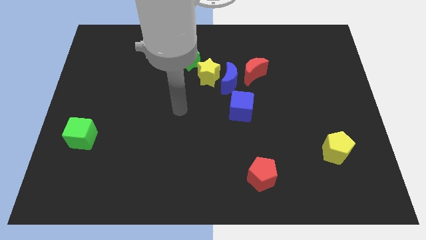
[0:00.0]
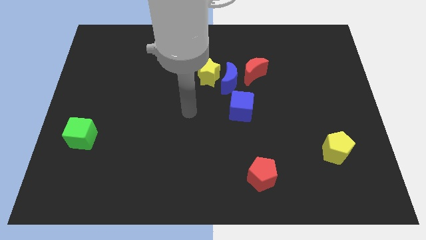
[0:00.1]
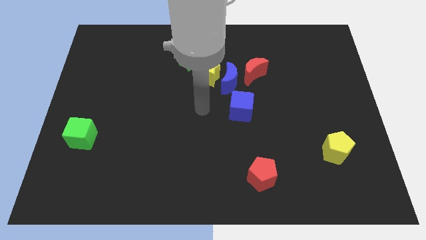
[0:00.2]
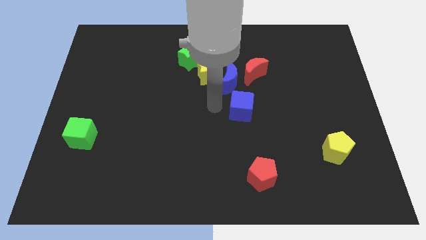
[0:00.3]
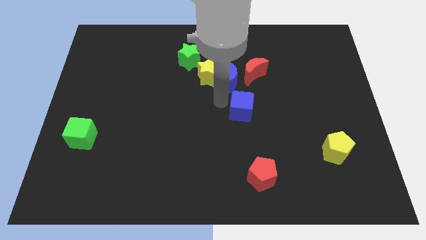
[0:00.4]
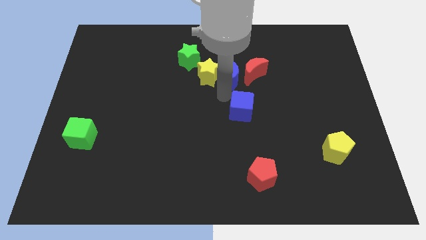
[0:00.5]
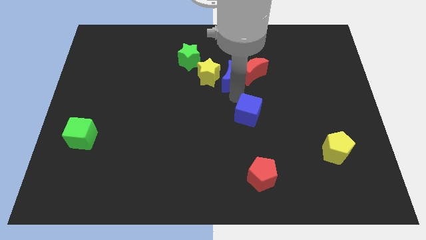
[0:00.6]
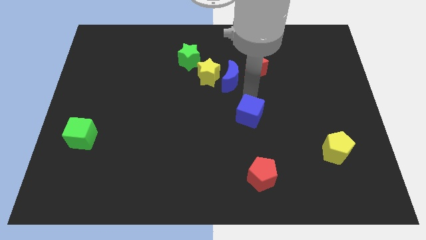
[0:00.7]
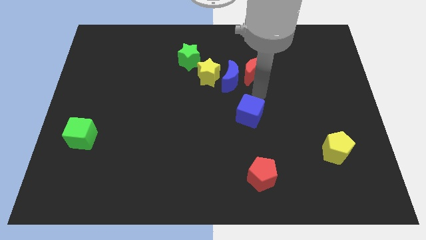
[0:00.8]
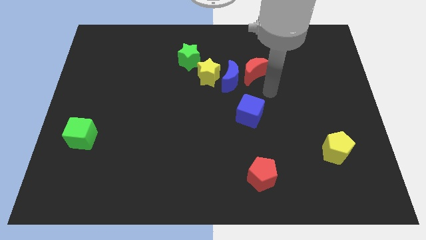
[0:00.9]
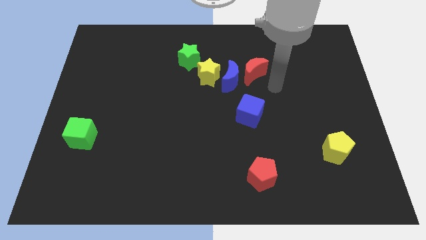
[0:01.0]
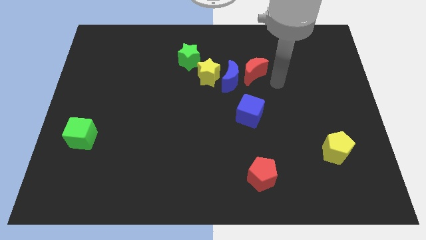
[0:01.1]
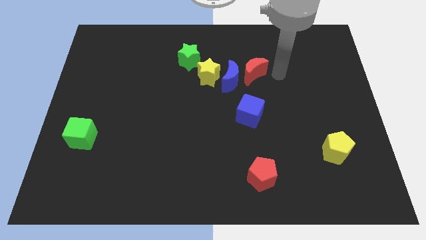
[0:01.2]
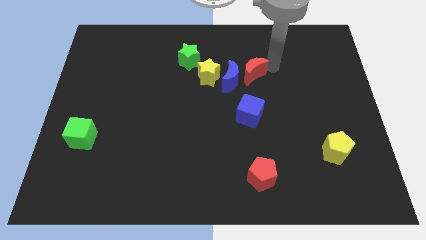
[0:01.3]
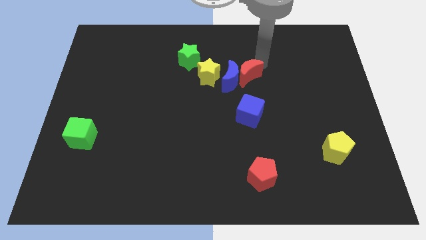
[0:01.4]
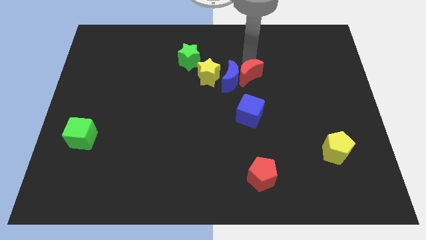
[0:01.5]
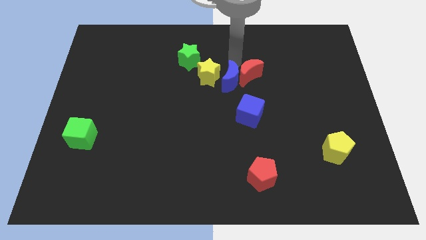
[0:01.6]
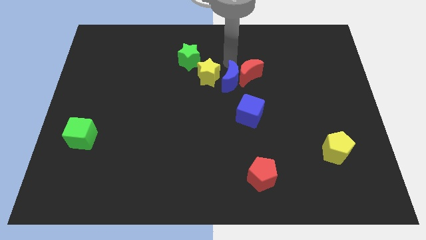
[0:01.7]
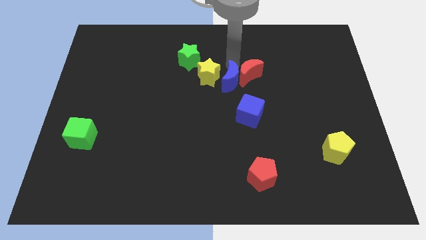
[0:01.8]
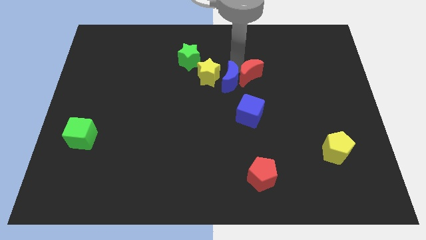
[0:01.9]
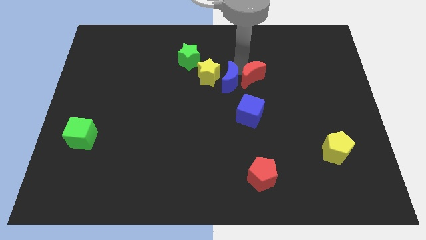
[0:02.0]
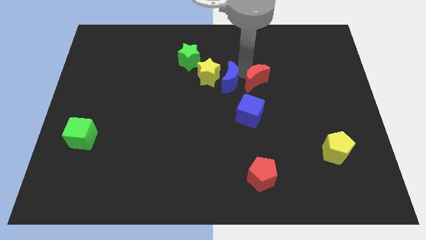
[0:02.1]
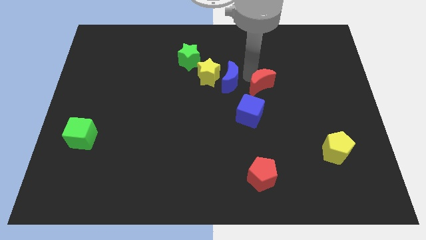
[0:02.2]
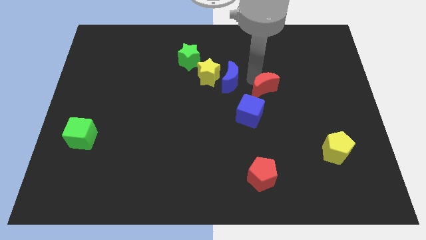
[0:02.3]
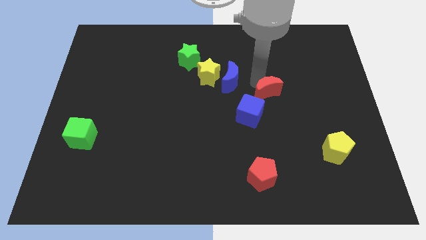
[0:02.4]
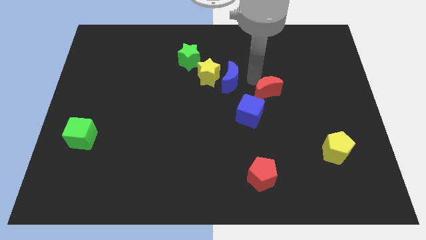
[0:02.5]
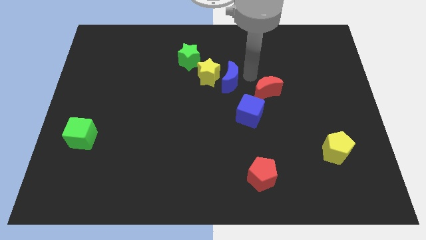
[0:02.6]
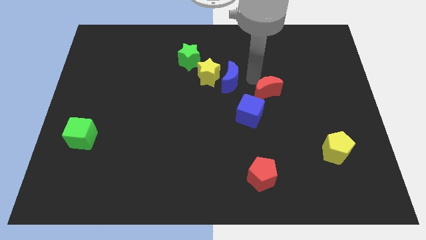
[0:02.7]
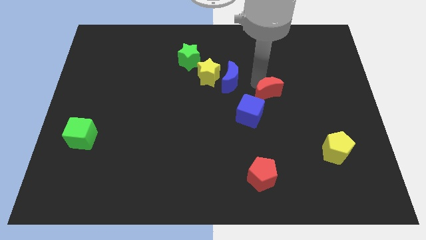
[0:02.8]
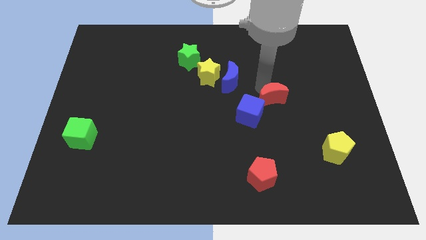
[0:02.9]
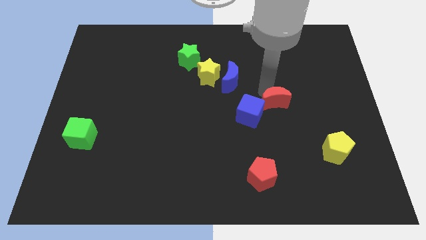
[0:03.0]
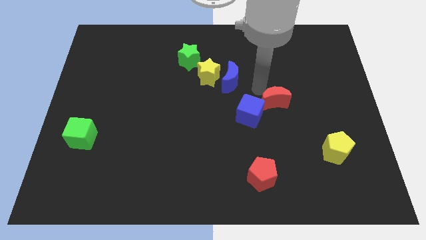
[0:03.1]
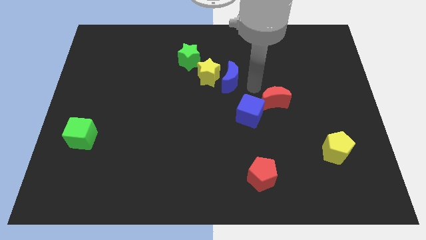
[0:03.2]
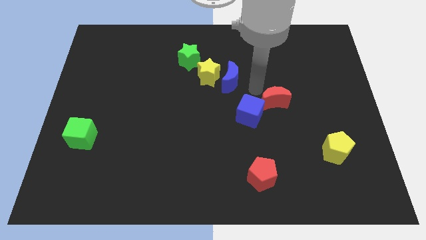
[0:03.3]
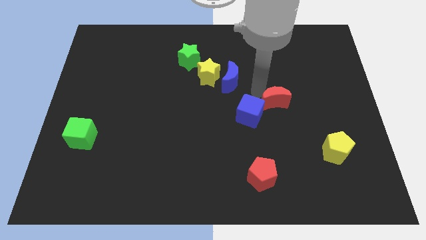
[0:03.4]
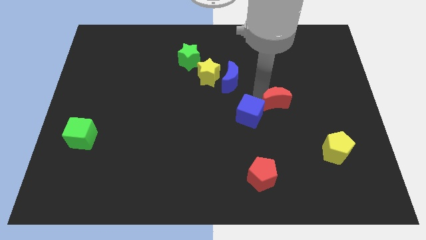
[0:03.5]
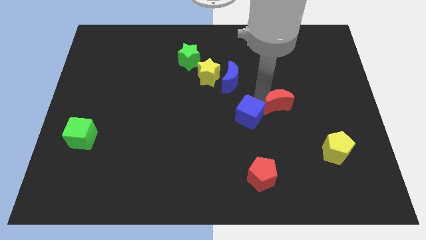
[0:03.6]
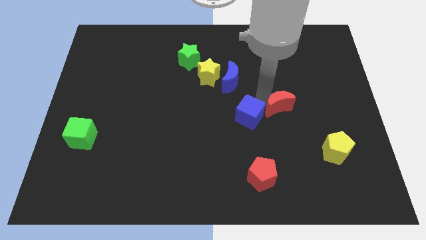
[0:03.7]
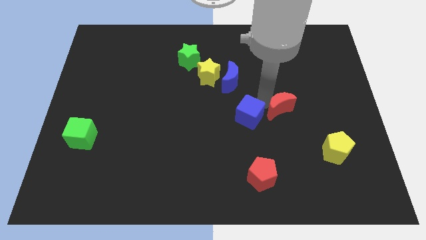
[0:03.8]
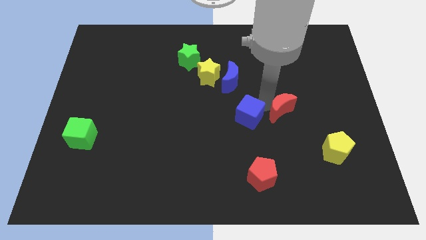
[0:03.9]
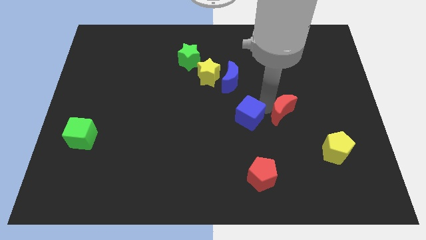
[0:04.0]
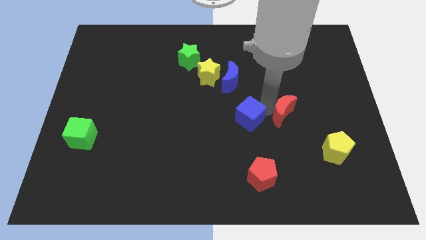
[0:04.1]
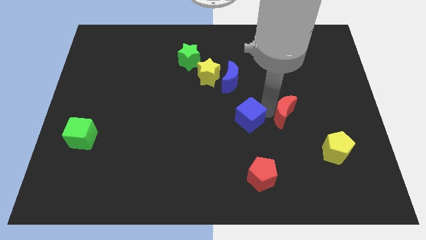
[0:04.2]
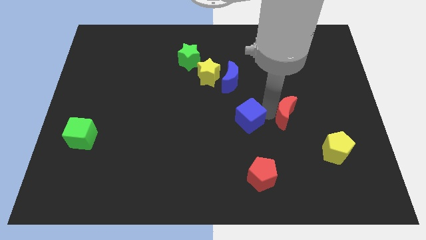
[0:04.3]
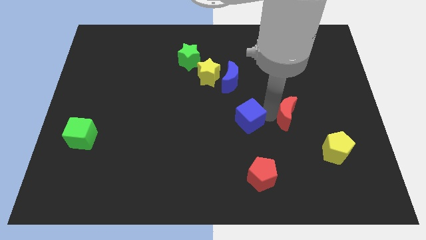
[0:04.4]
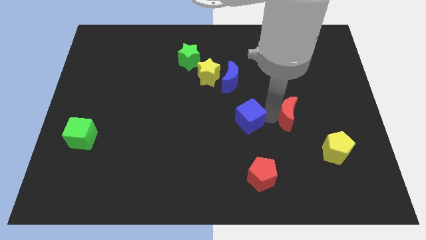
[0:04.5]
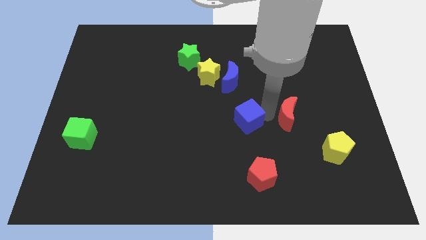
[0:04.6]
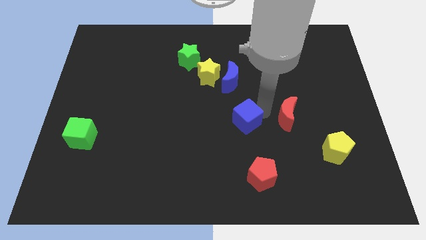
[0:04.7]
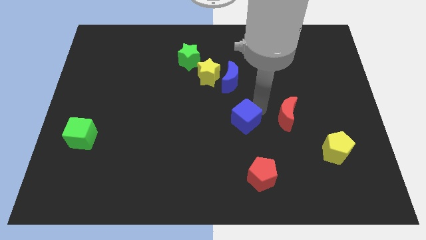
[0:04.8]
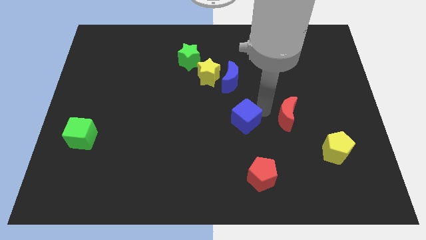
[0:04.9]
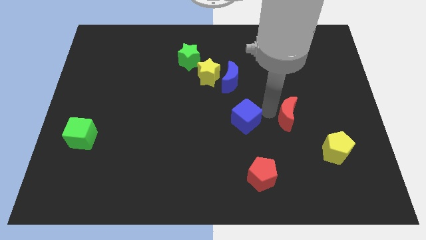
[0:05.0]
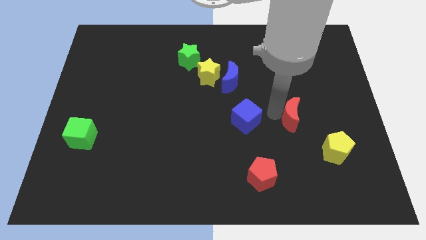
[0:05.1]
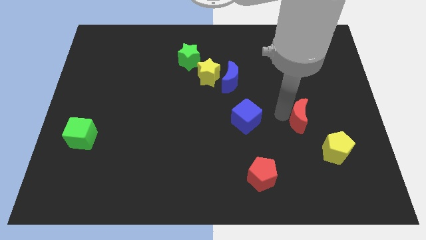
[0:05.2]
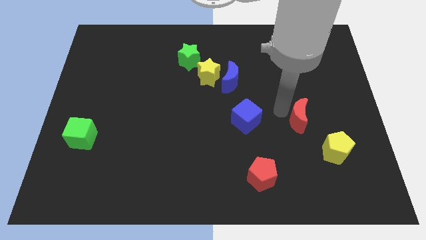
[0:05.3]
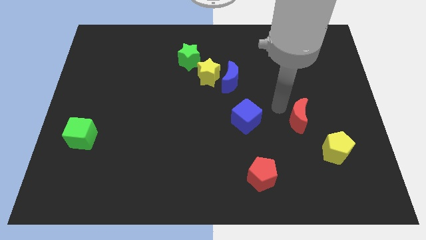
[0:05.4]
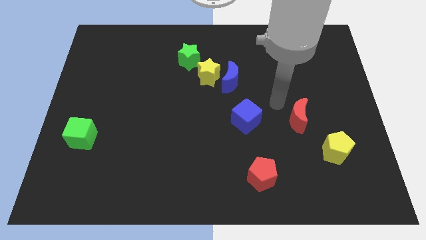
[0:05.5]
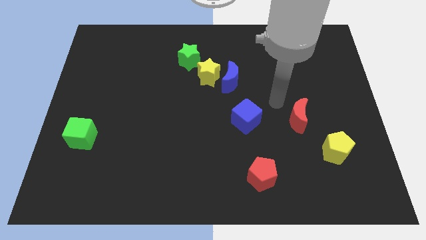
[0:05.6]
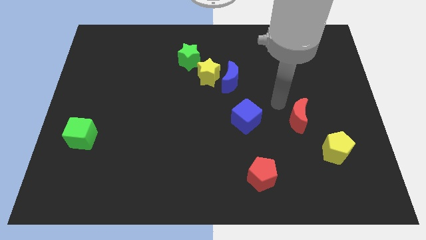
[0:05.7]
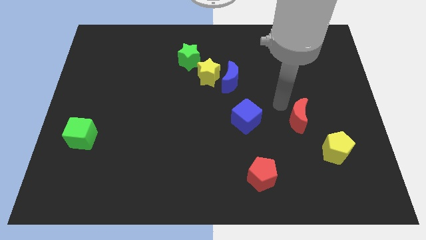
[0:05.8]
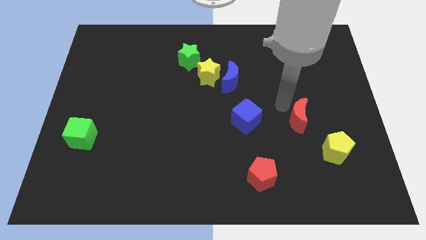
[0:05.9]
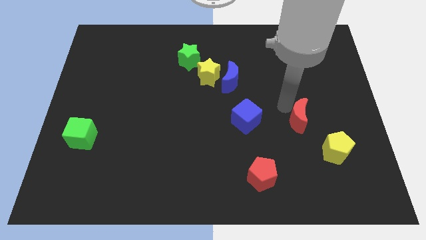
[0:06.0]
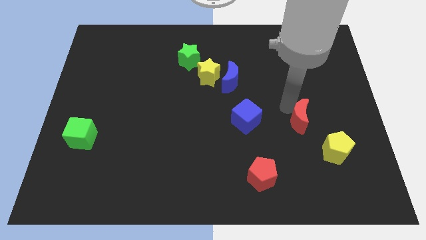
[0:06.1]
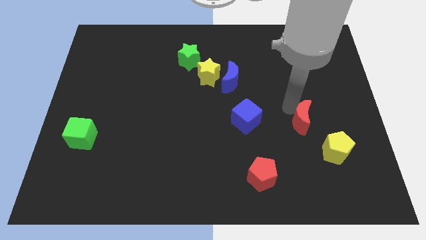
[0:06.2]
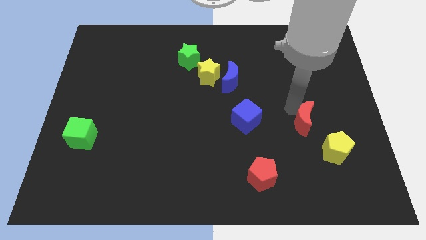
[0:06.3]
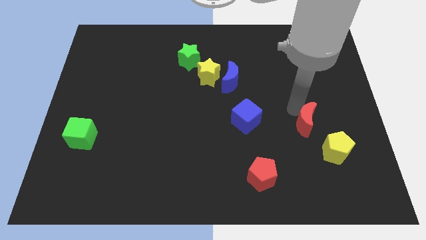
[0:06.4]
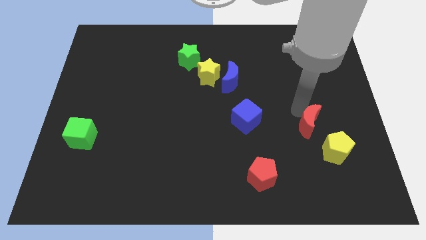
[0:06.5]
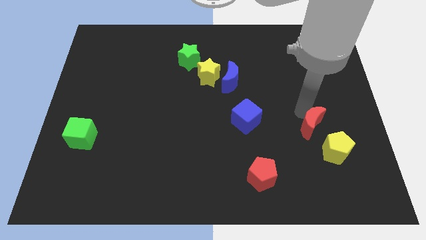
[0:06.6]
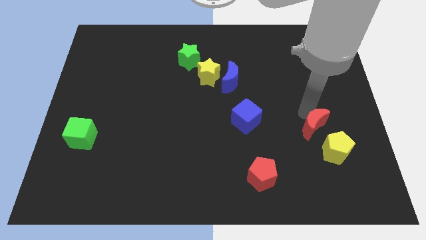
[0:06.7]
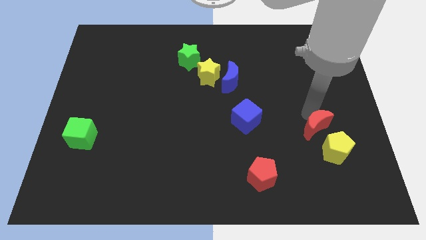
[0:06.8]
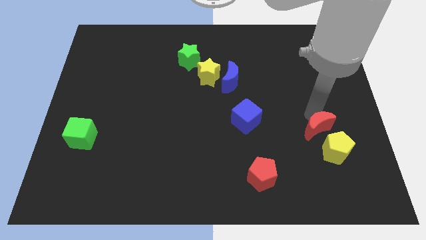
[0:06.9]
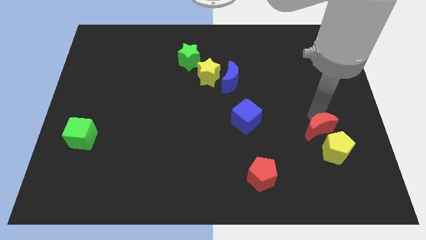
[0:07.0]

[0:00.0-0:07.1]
move the red moon towards the yellow pentagon
